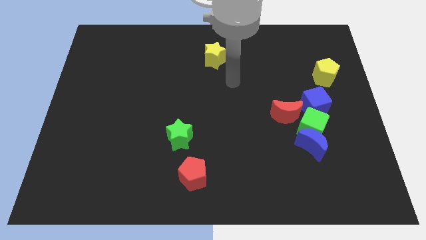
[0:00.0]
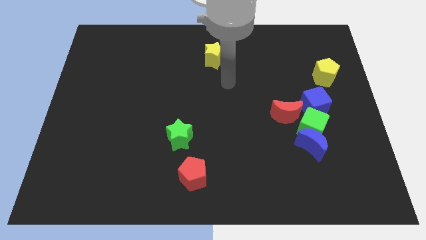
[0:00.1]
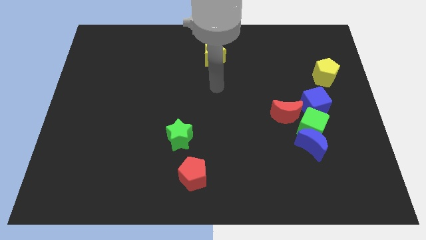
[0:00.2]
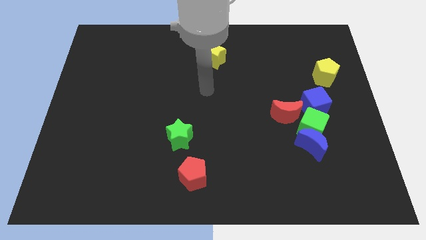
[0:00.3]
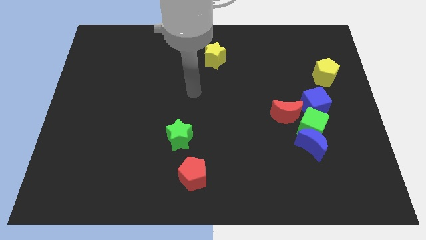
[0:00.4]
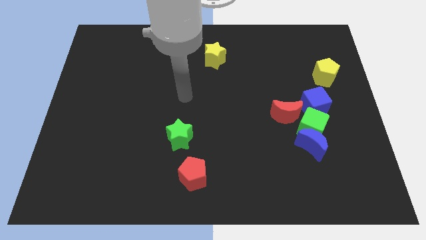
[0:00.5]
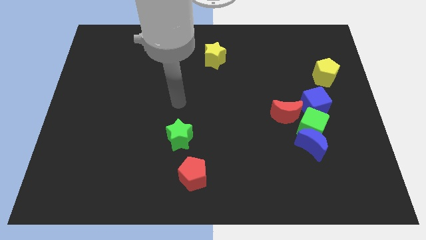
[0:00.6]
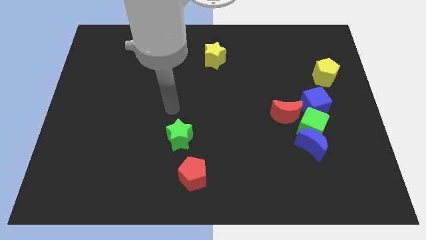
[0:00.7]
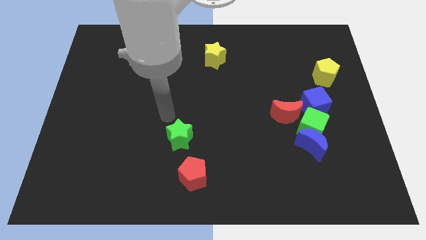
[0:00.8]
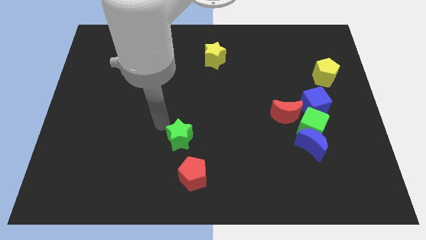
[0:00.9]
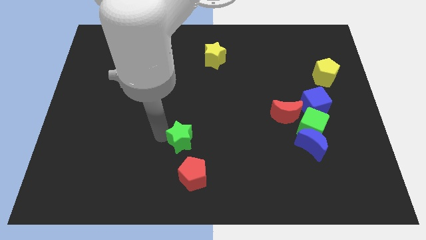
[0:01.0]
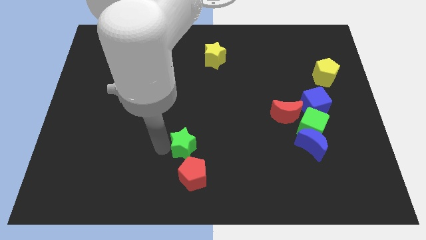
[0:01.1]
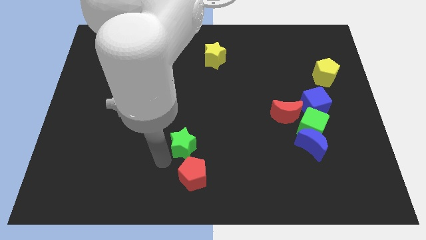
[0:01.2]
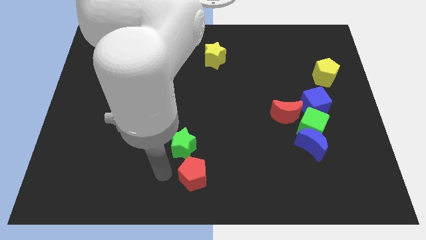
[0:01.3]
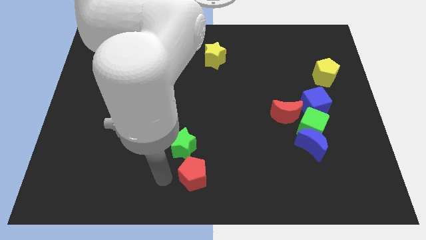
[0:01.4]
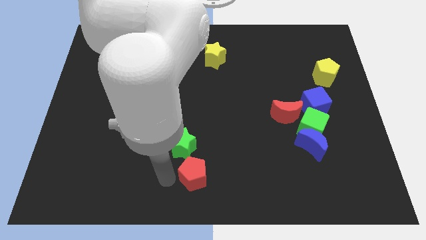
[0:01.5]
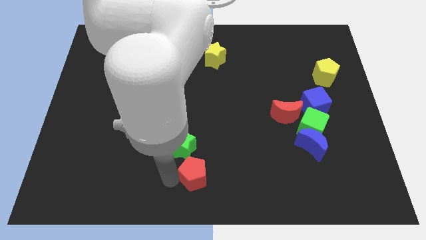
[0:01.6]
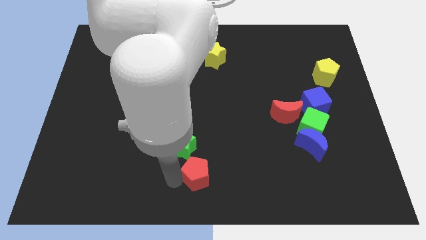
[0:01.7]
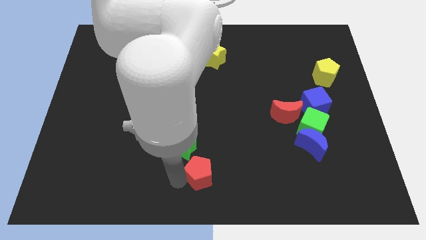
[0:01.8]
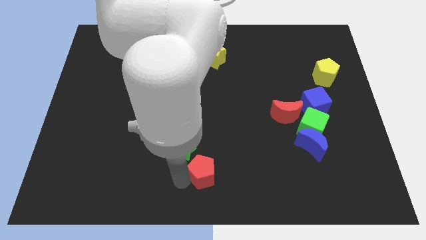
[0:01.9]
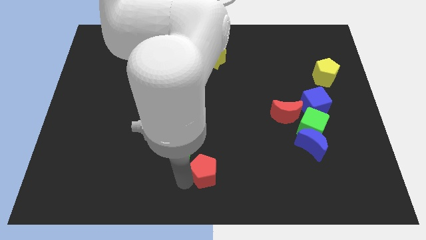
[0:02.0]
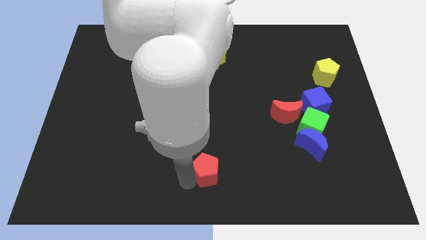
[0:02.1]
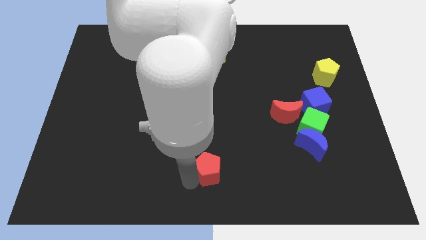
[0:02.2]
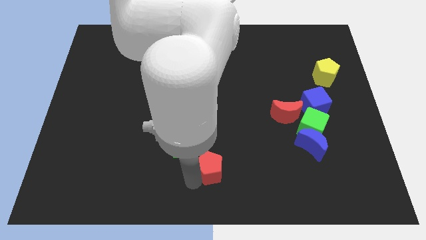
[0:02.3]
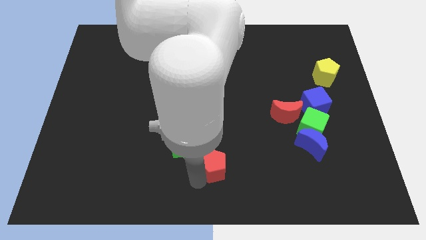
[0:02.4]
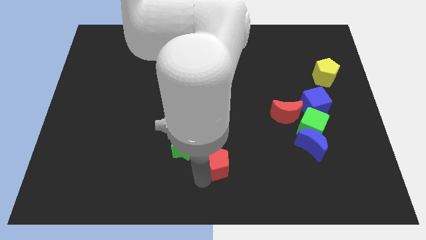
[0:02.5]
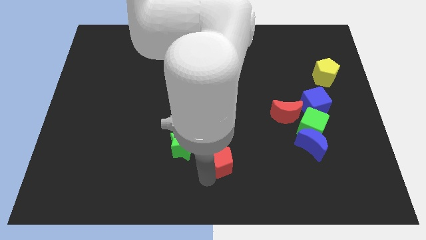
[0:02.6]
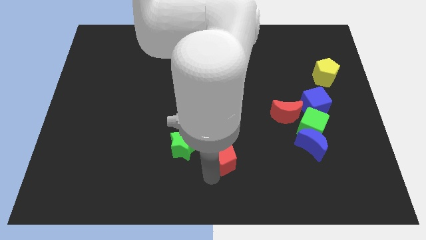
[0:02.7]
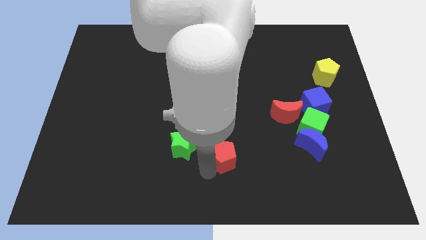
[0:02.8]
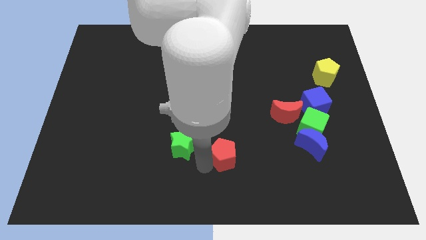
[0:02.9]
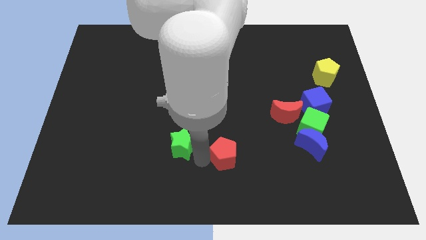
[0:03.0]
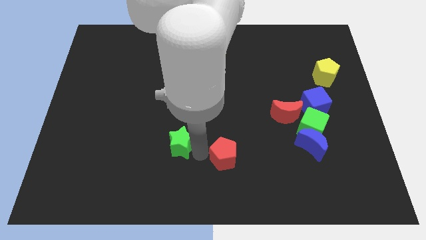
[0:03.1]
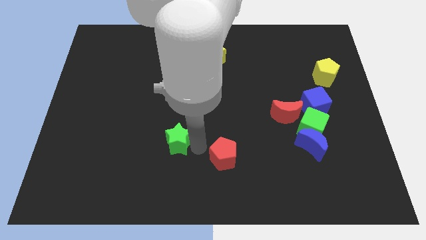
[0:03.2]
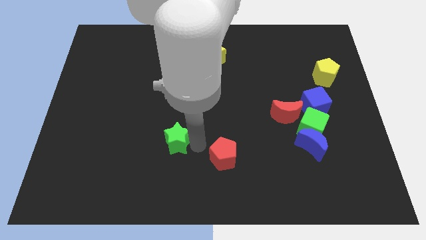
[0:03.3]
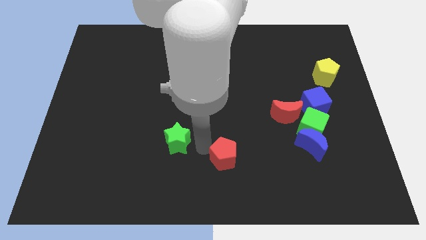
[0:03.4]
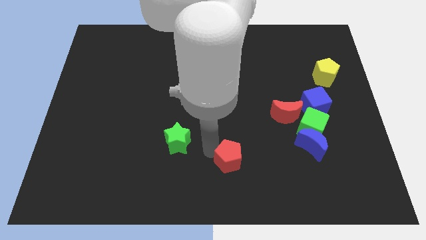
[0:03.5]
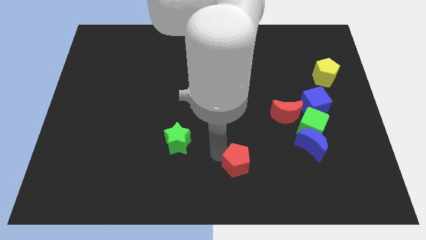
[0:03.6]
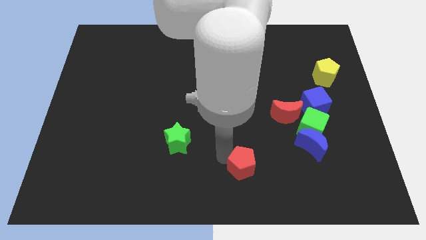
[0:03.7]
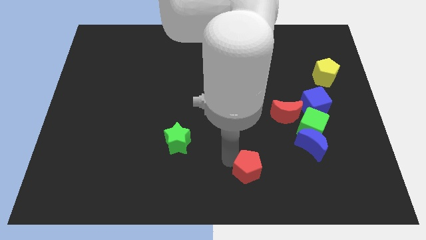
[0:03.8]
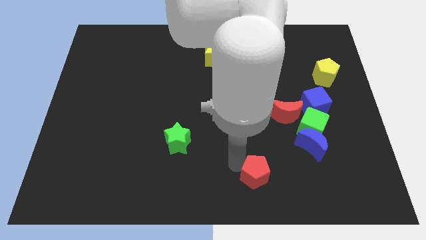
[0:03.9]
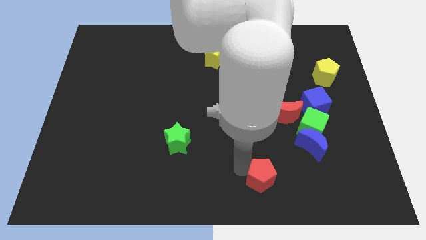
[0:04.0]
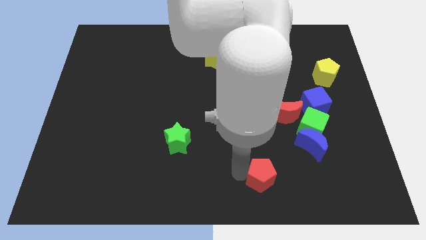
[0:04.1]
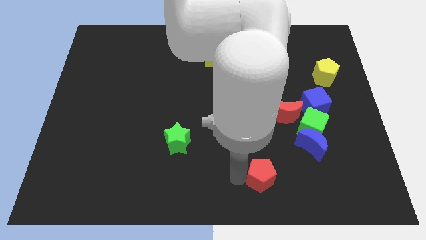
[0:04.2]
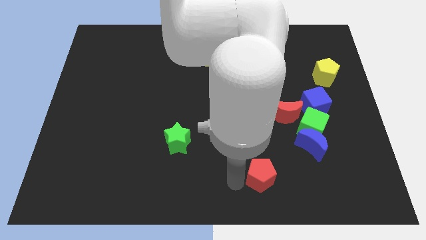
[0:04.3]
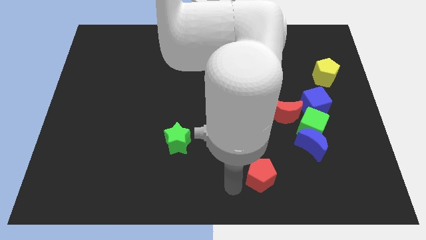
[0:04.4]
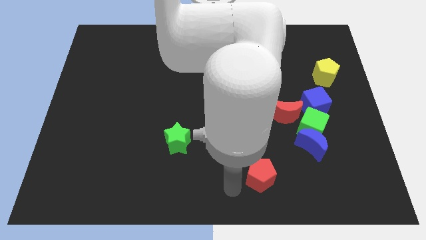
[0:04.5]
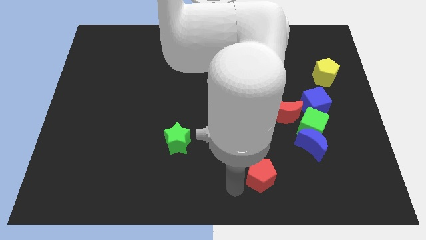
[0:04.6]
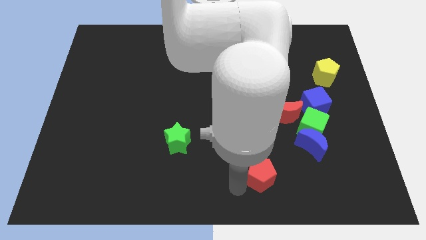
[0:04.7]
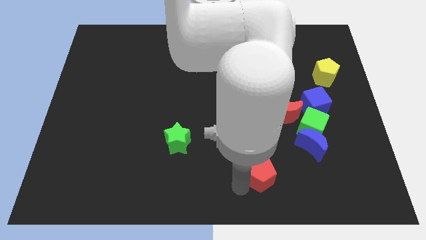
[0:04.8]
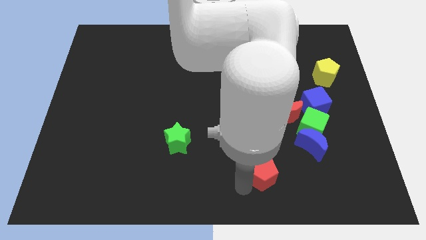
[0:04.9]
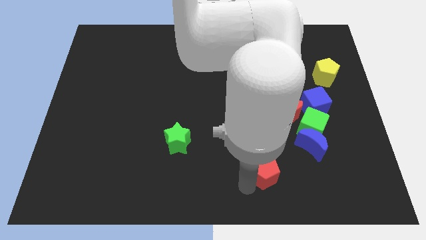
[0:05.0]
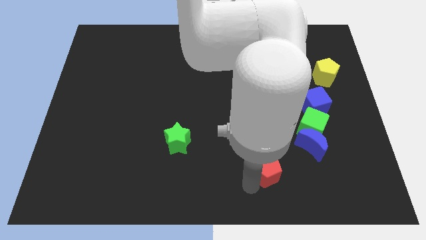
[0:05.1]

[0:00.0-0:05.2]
move the red pentagon to the bottom left of the blue moon
